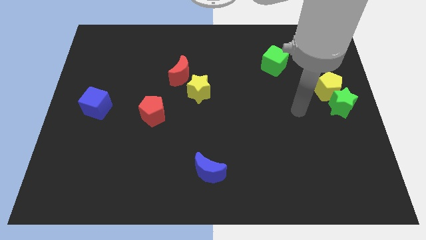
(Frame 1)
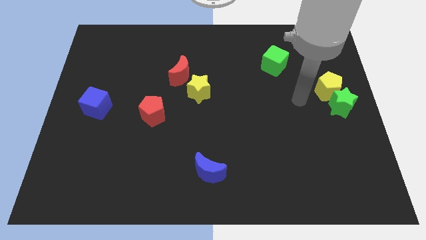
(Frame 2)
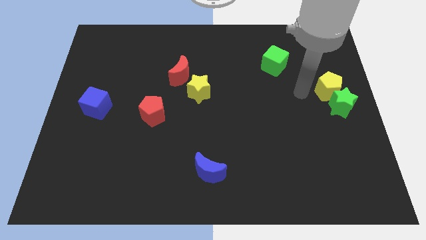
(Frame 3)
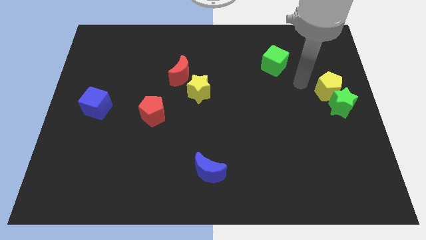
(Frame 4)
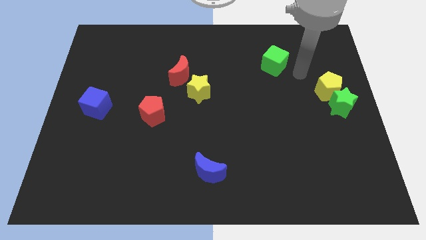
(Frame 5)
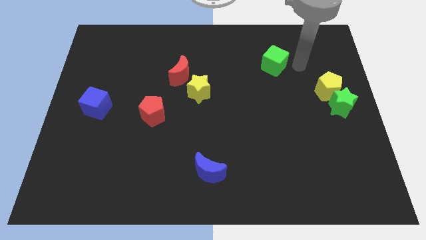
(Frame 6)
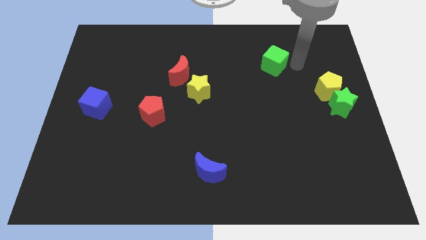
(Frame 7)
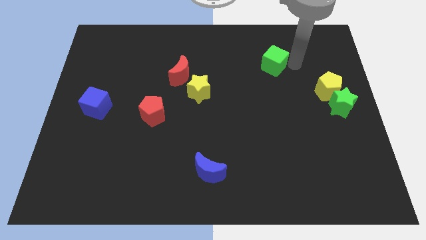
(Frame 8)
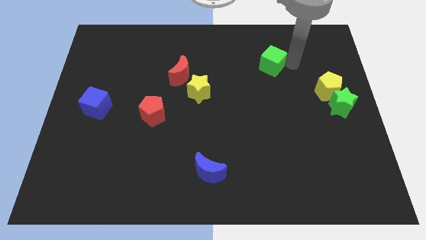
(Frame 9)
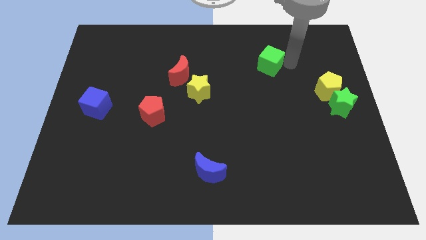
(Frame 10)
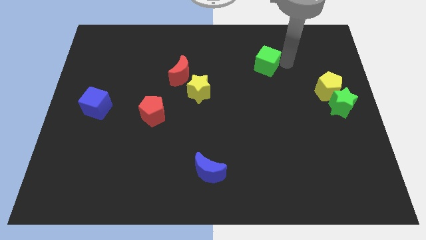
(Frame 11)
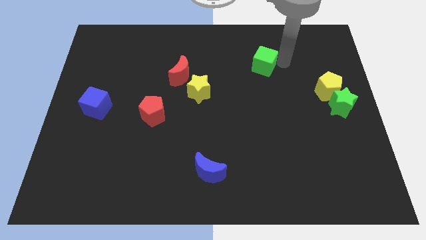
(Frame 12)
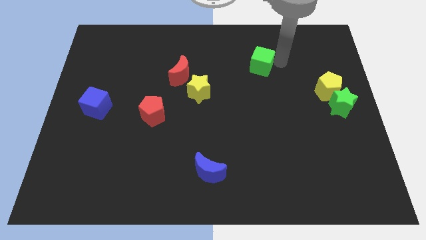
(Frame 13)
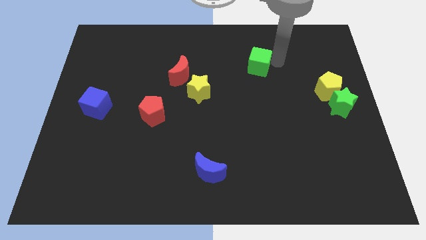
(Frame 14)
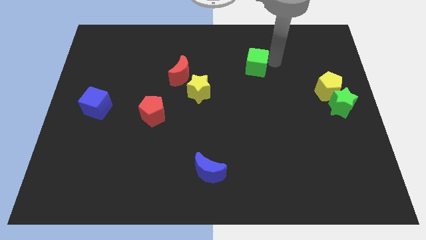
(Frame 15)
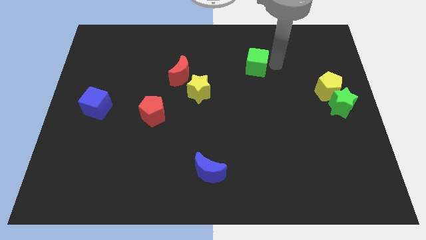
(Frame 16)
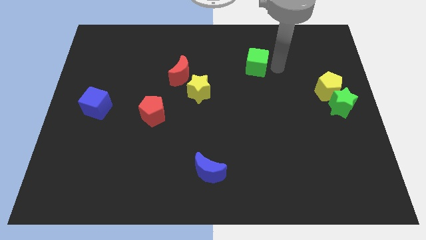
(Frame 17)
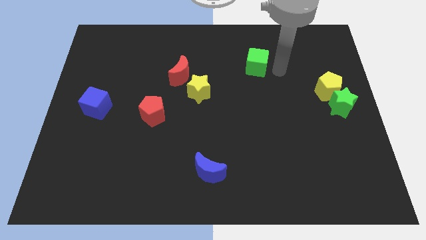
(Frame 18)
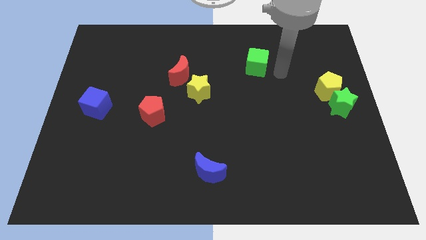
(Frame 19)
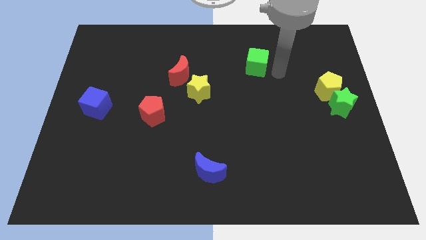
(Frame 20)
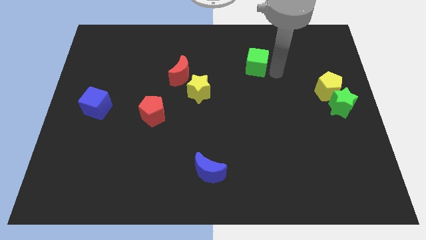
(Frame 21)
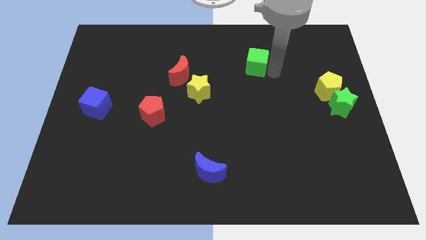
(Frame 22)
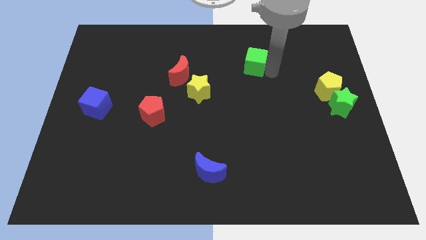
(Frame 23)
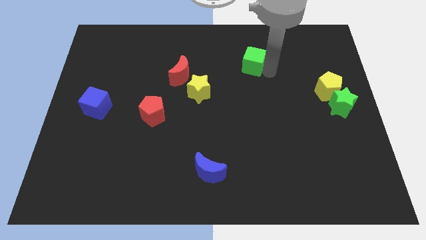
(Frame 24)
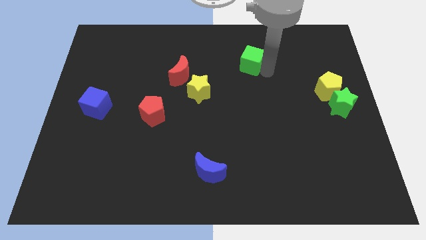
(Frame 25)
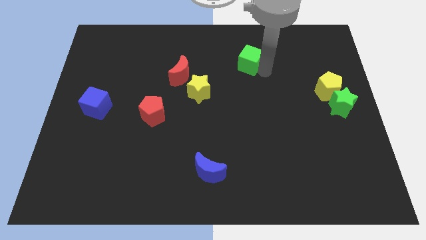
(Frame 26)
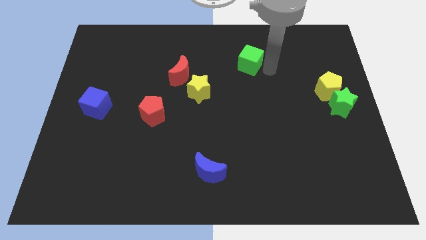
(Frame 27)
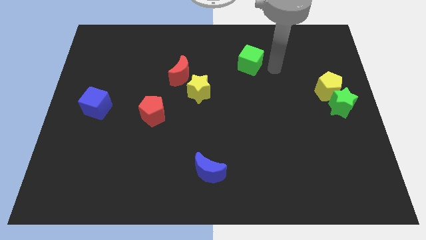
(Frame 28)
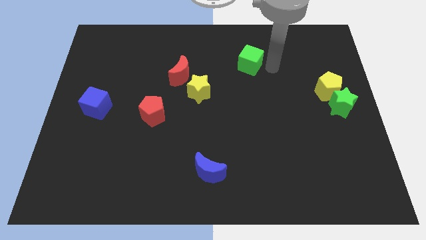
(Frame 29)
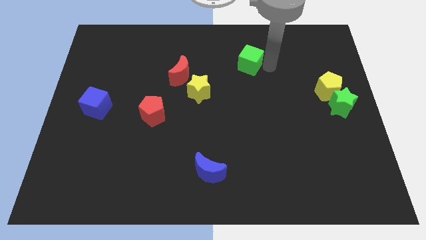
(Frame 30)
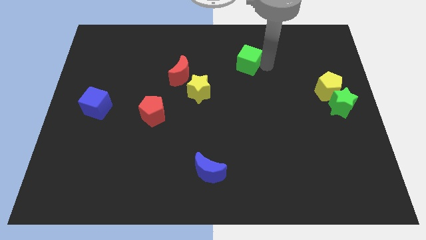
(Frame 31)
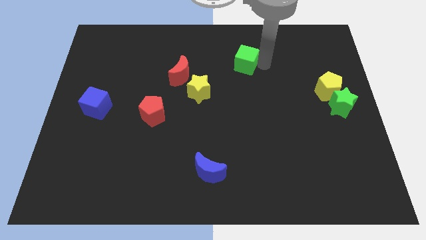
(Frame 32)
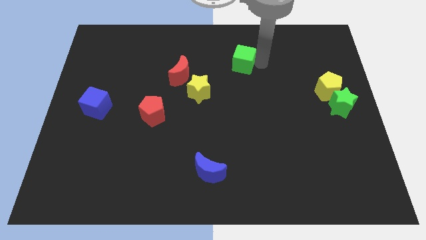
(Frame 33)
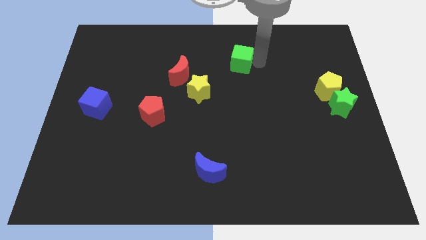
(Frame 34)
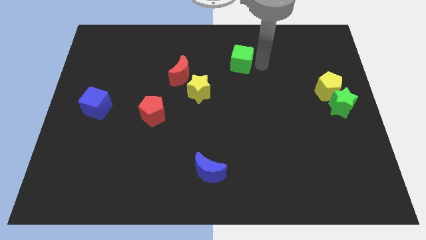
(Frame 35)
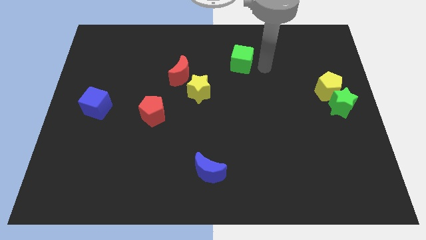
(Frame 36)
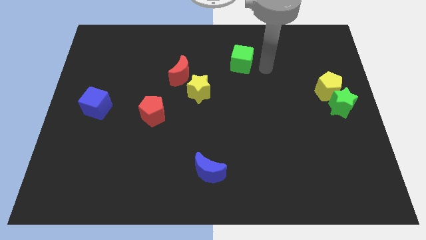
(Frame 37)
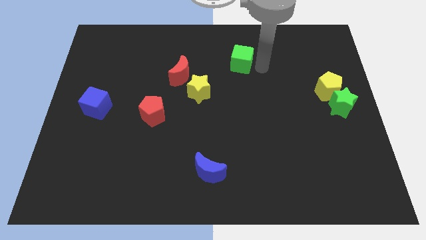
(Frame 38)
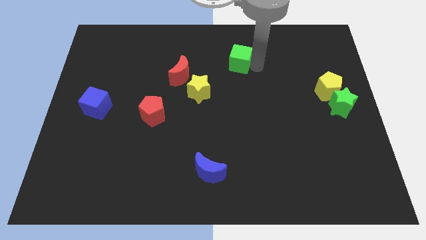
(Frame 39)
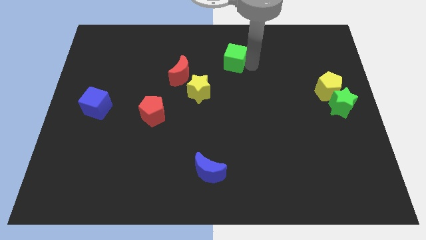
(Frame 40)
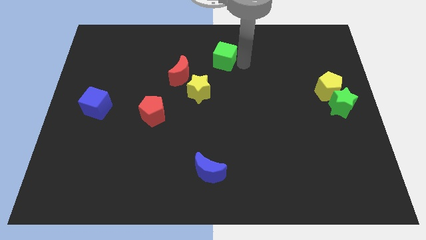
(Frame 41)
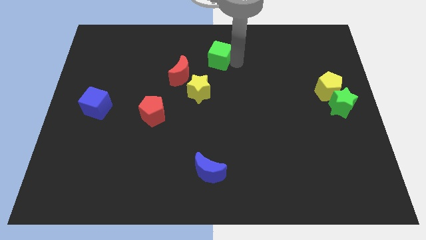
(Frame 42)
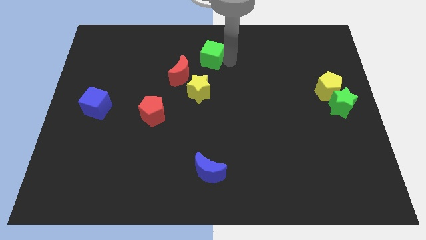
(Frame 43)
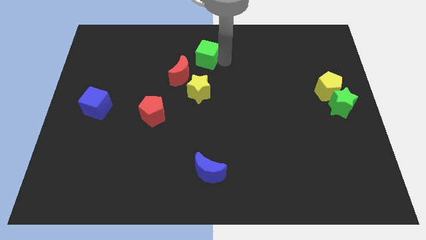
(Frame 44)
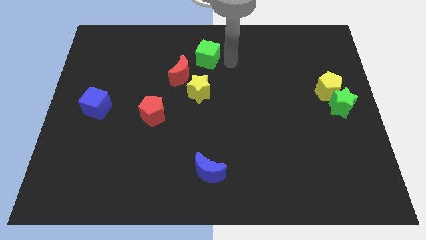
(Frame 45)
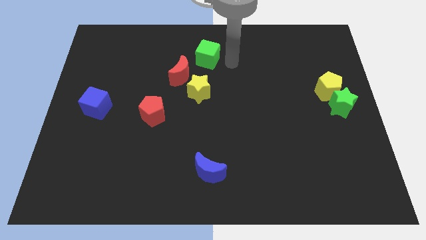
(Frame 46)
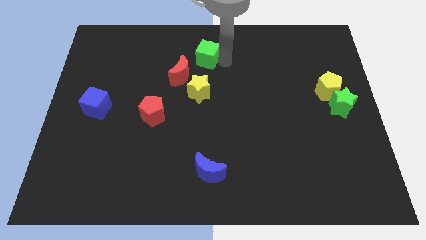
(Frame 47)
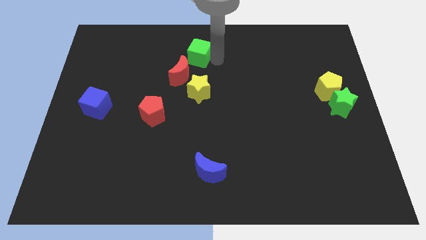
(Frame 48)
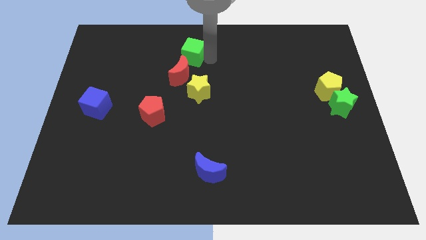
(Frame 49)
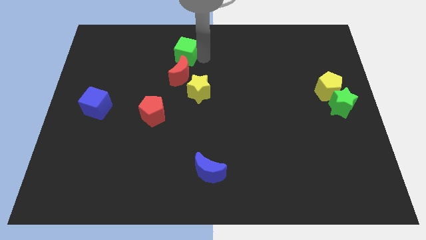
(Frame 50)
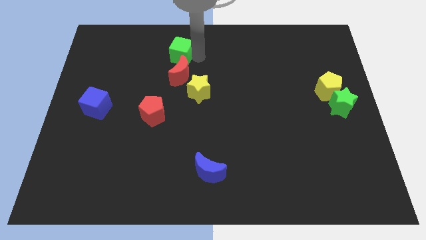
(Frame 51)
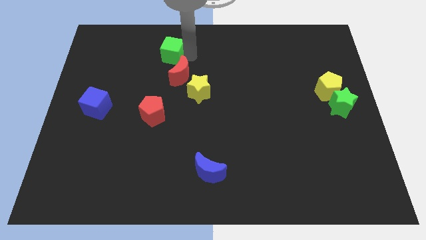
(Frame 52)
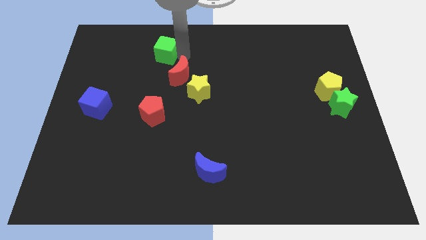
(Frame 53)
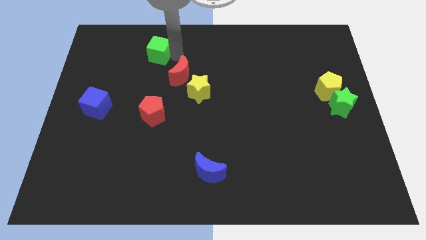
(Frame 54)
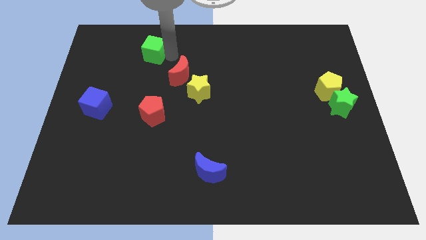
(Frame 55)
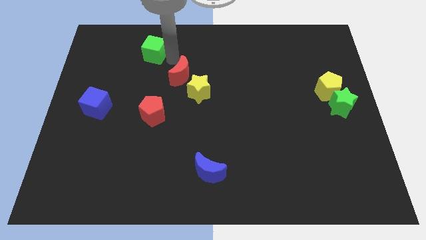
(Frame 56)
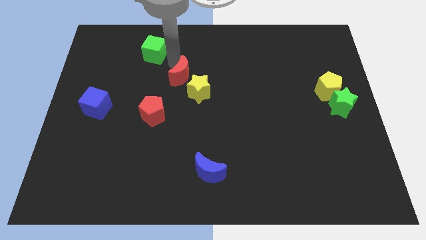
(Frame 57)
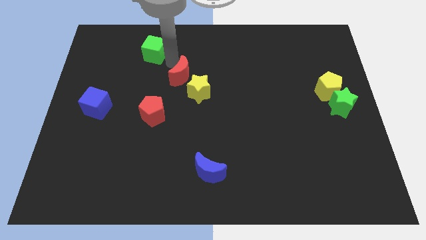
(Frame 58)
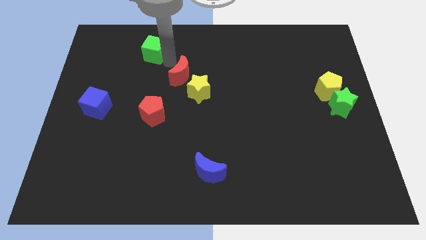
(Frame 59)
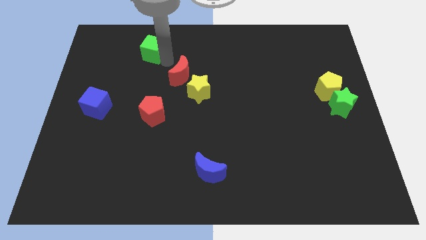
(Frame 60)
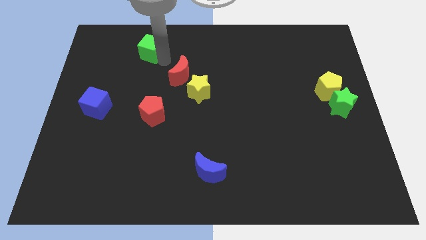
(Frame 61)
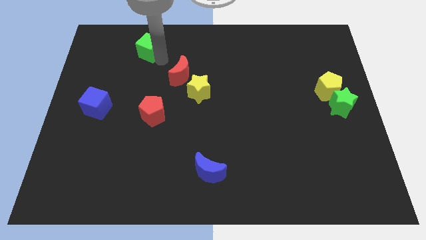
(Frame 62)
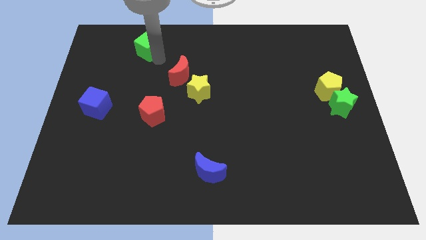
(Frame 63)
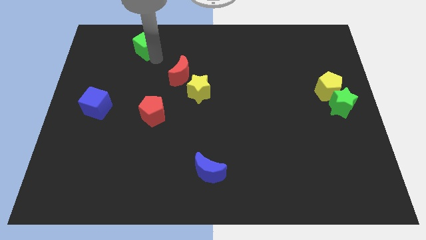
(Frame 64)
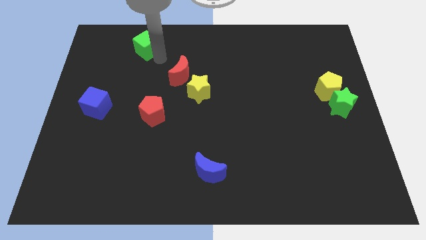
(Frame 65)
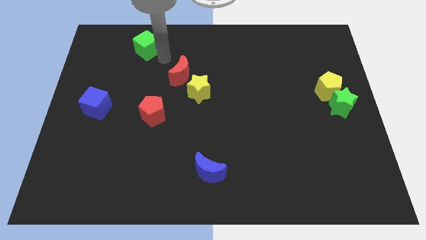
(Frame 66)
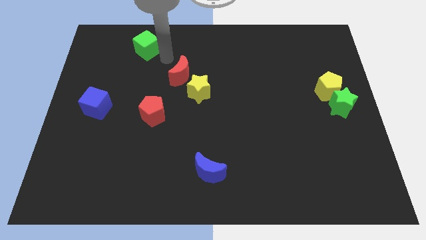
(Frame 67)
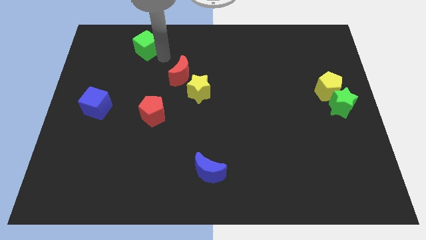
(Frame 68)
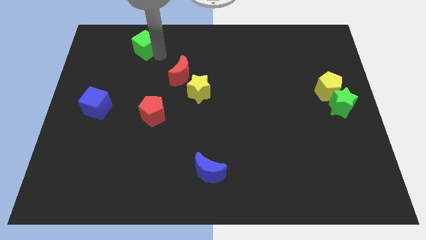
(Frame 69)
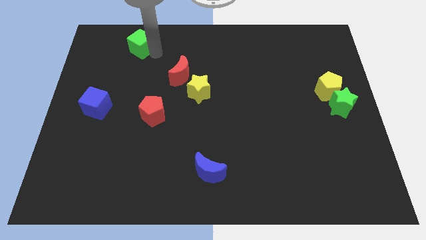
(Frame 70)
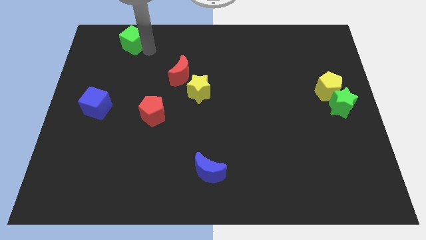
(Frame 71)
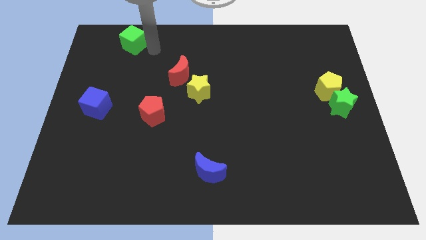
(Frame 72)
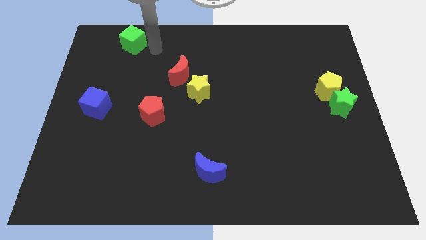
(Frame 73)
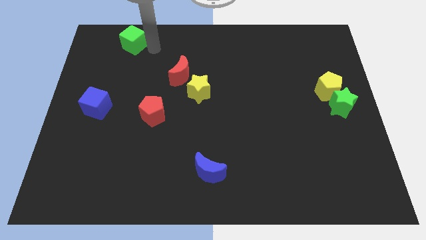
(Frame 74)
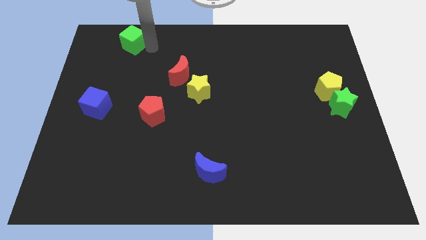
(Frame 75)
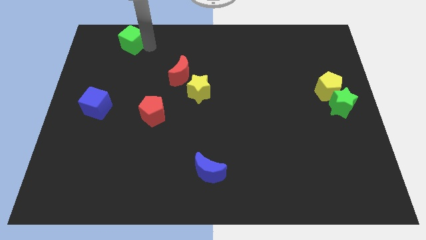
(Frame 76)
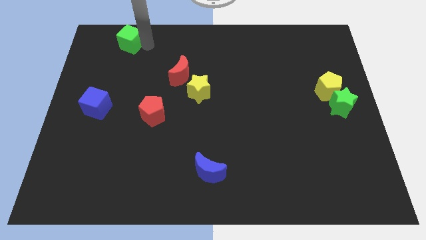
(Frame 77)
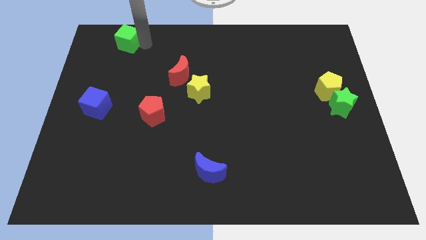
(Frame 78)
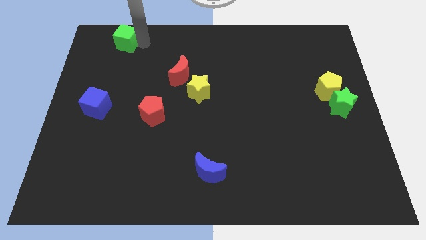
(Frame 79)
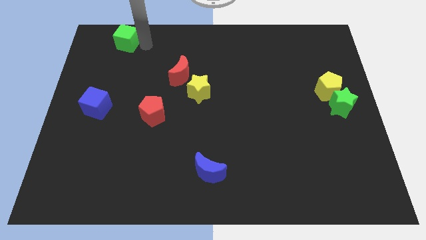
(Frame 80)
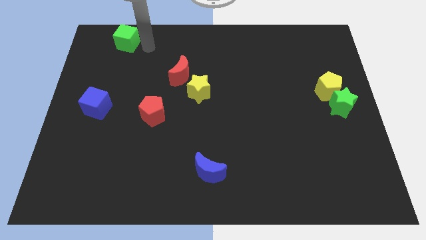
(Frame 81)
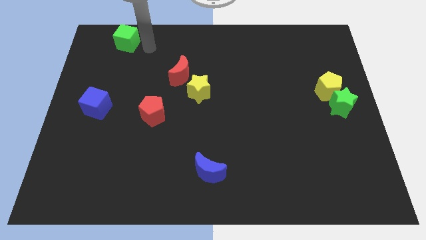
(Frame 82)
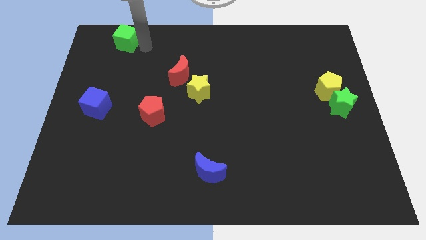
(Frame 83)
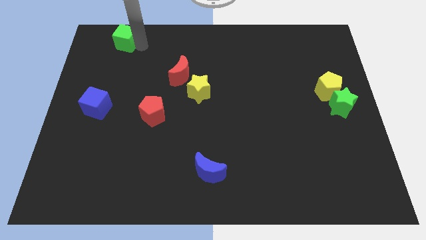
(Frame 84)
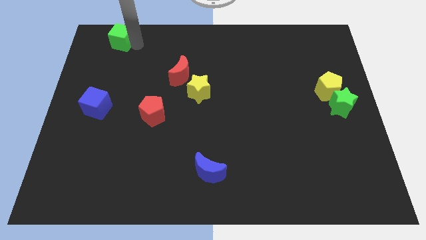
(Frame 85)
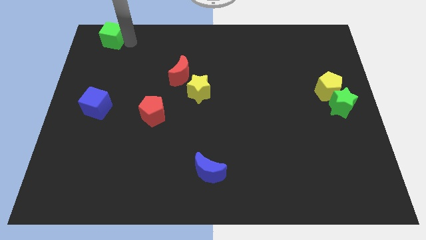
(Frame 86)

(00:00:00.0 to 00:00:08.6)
put the green cube to the top left
